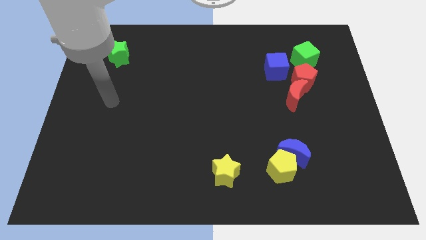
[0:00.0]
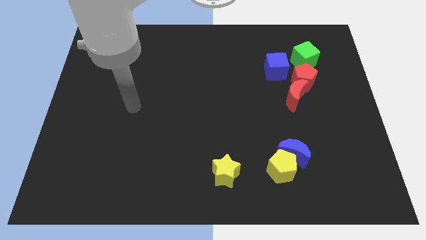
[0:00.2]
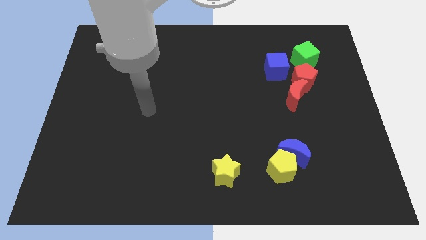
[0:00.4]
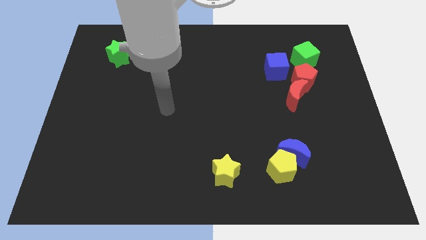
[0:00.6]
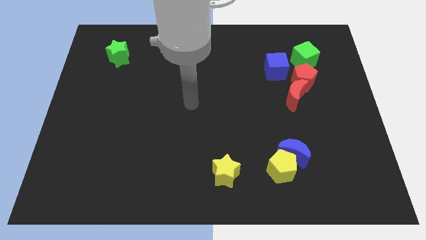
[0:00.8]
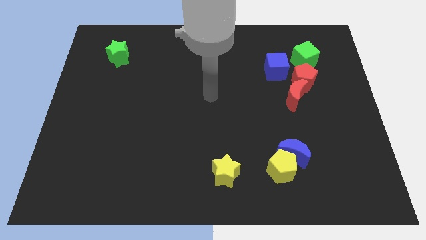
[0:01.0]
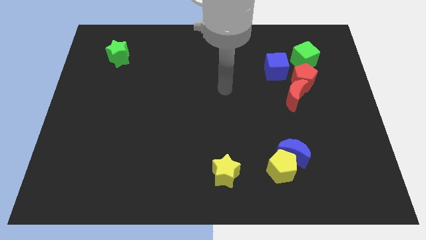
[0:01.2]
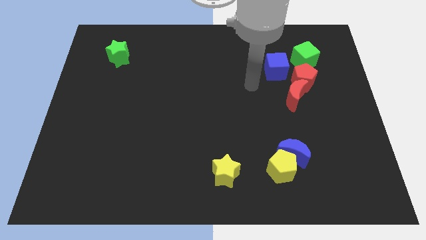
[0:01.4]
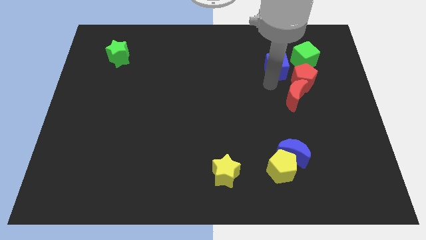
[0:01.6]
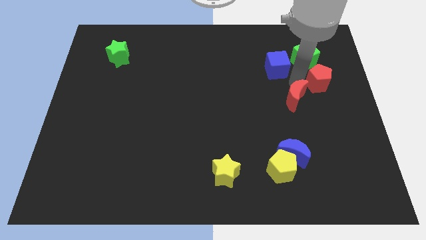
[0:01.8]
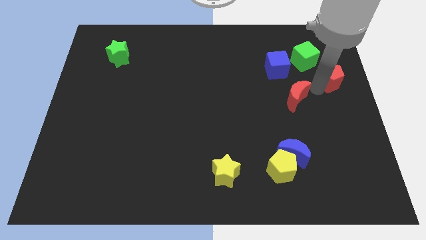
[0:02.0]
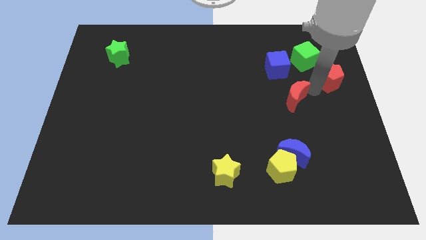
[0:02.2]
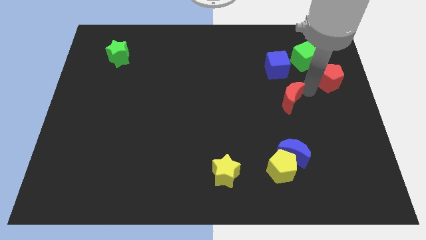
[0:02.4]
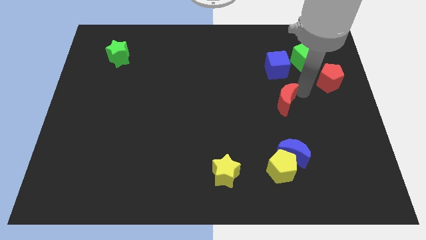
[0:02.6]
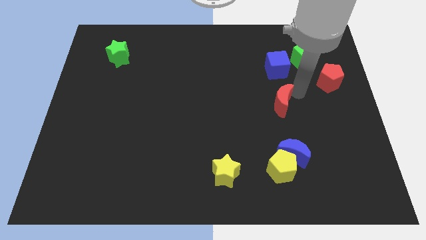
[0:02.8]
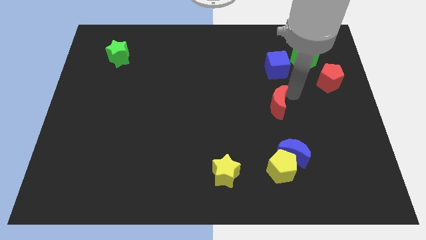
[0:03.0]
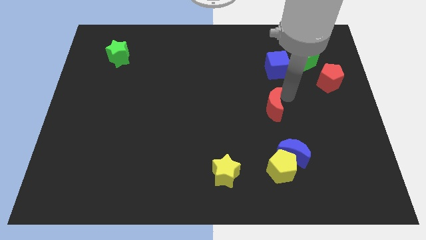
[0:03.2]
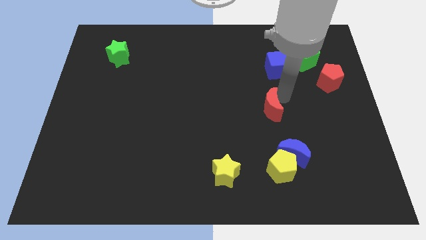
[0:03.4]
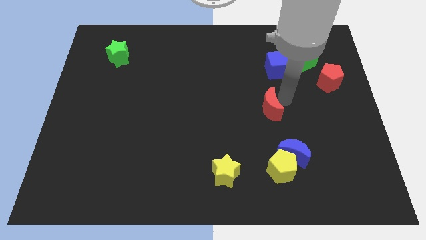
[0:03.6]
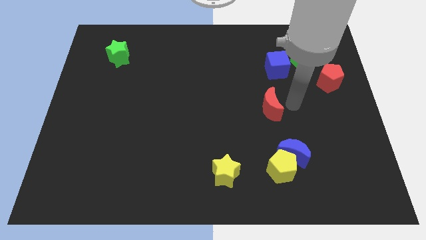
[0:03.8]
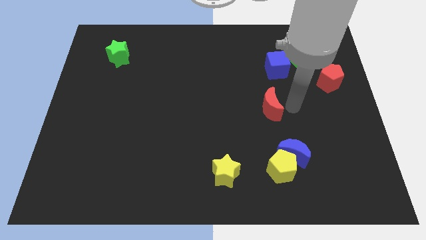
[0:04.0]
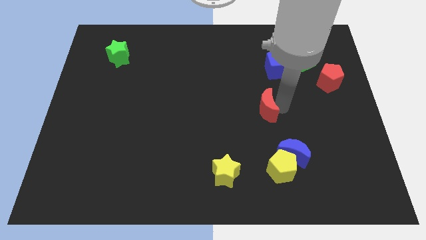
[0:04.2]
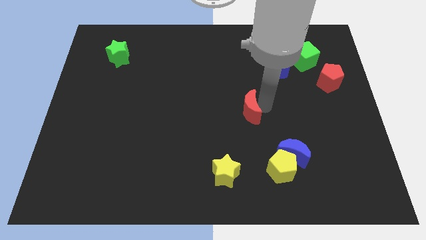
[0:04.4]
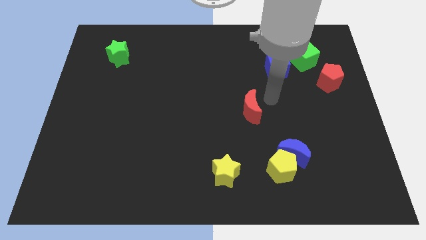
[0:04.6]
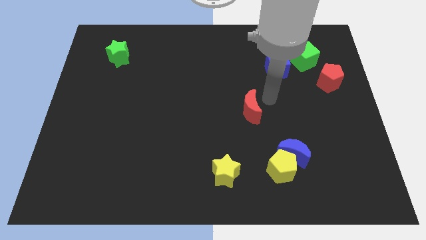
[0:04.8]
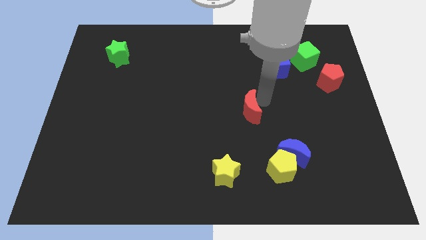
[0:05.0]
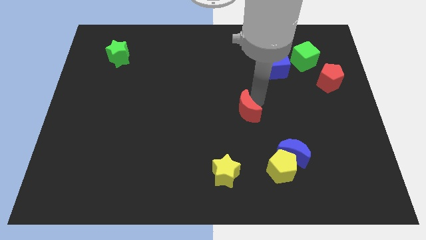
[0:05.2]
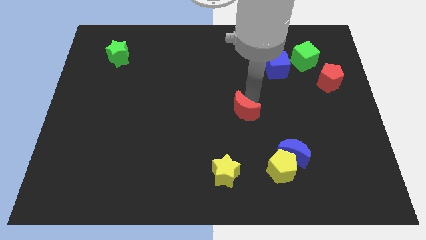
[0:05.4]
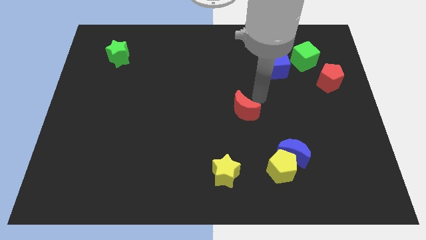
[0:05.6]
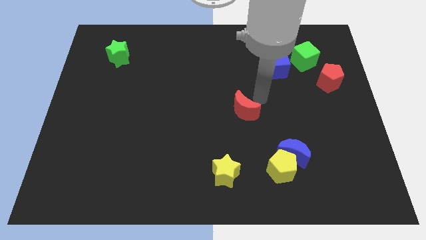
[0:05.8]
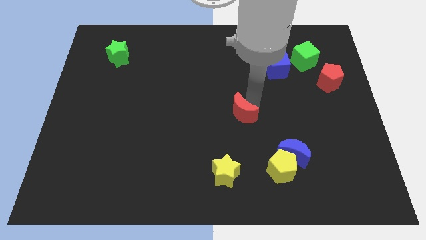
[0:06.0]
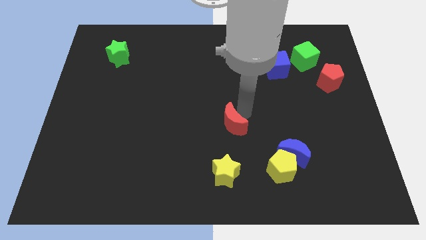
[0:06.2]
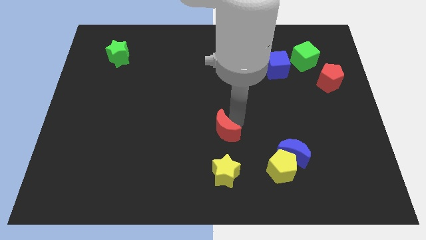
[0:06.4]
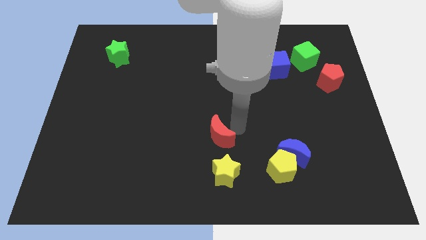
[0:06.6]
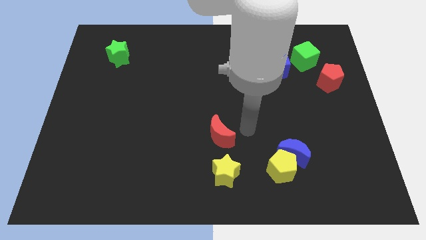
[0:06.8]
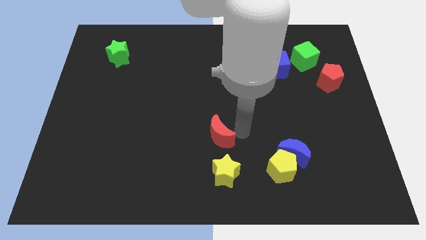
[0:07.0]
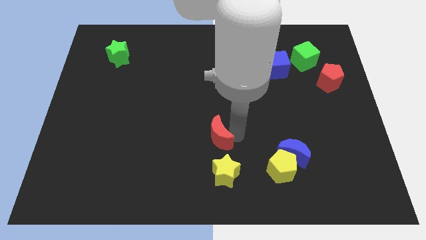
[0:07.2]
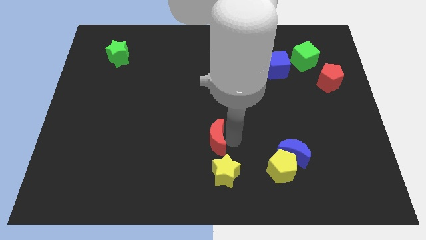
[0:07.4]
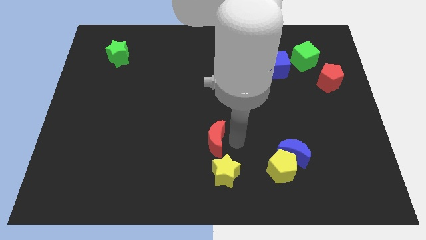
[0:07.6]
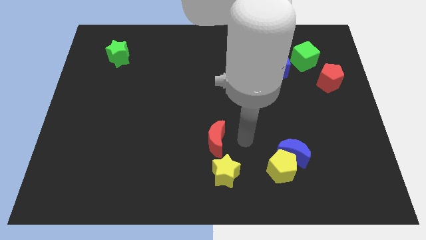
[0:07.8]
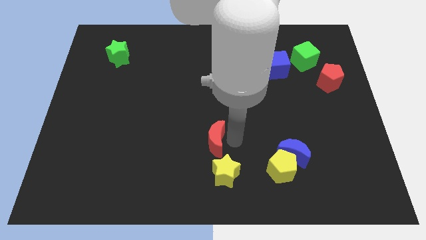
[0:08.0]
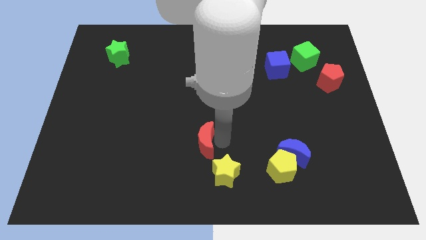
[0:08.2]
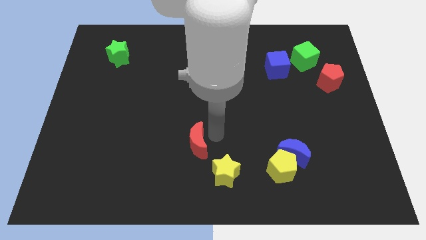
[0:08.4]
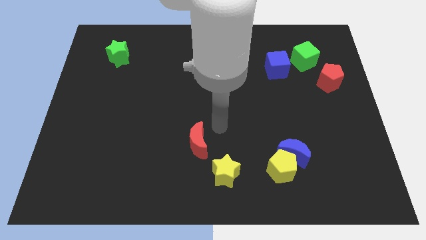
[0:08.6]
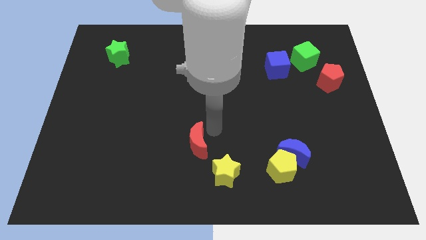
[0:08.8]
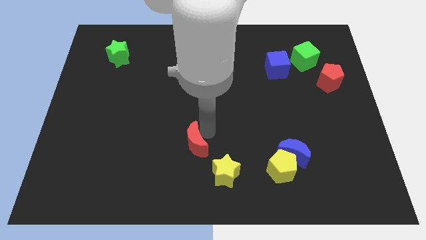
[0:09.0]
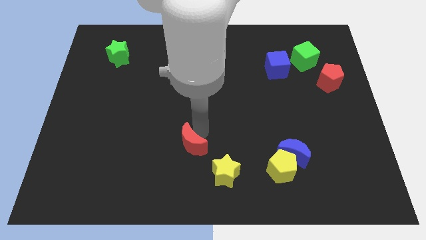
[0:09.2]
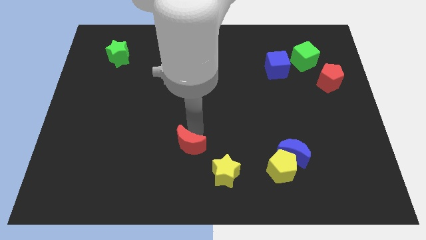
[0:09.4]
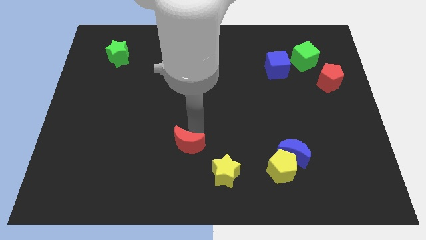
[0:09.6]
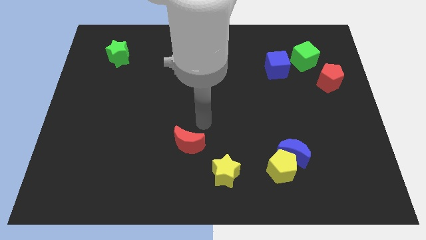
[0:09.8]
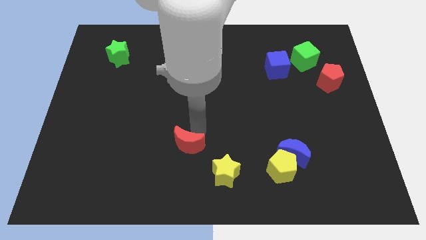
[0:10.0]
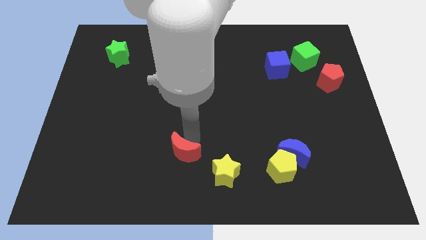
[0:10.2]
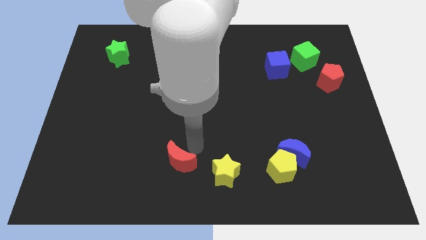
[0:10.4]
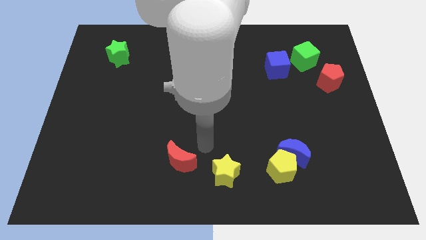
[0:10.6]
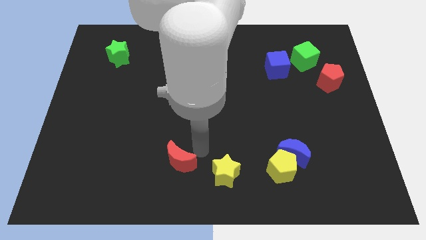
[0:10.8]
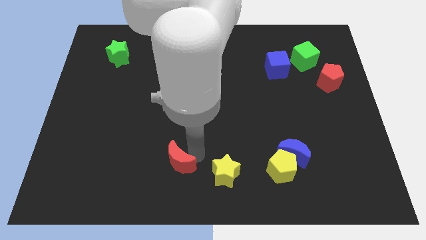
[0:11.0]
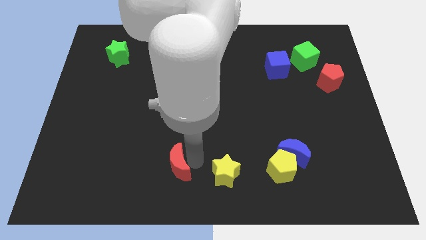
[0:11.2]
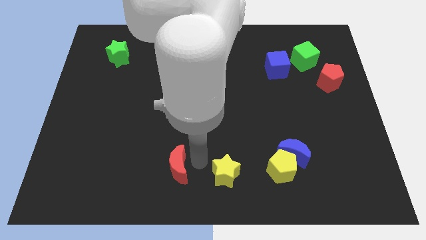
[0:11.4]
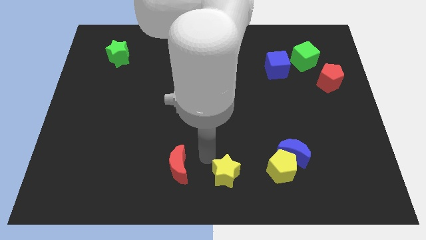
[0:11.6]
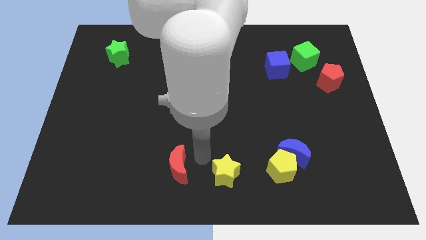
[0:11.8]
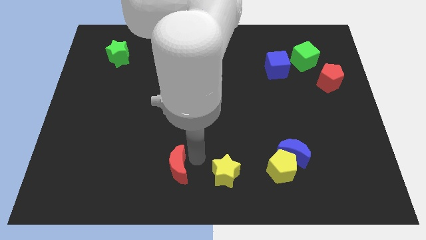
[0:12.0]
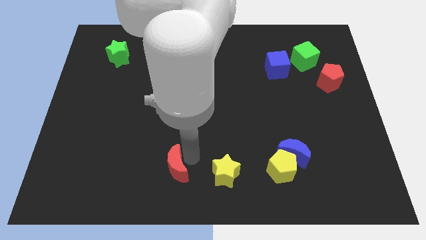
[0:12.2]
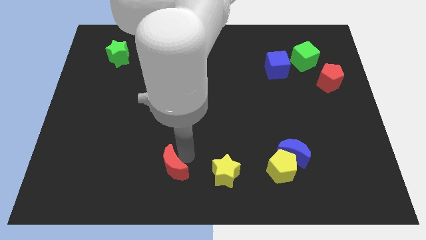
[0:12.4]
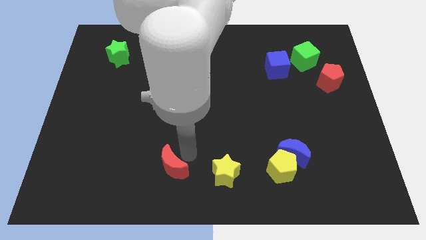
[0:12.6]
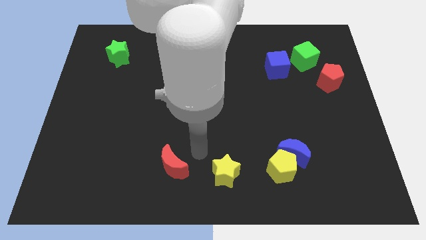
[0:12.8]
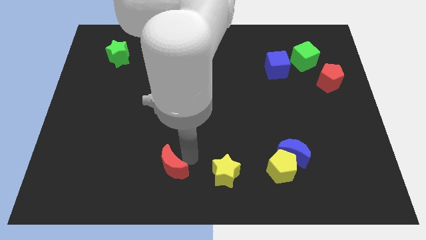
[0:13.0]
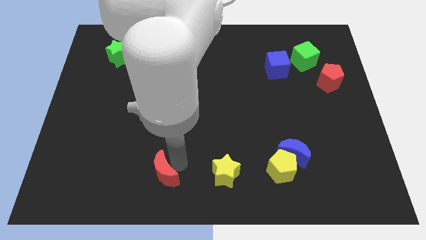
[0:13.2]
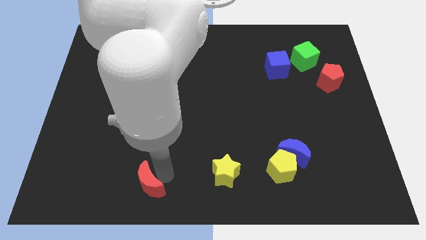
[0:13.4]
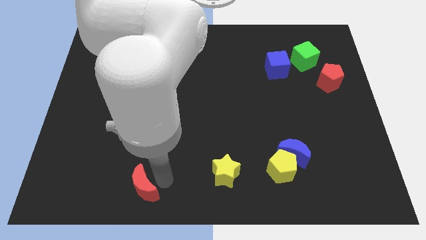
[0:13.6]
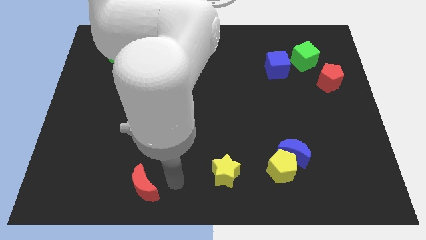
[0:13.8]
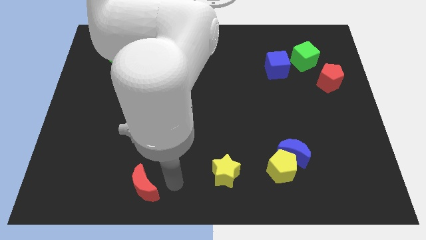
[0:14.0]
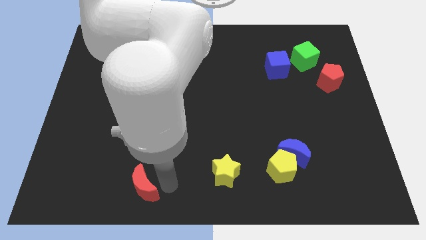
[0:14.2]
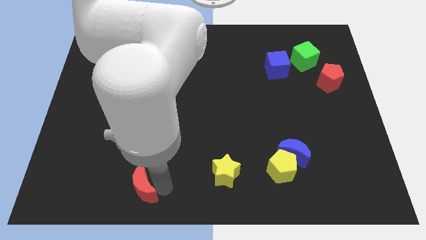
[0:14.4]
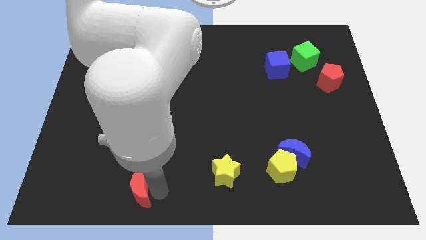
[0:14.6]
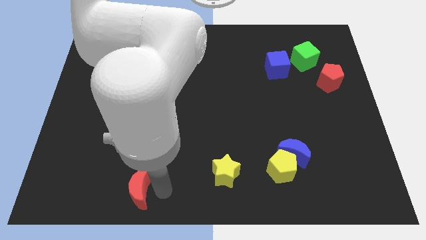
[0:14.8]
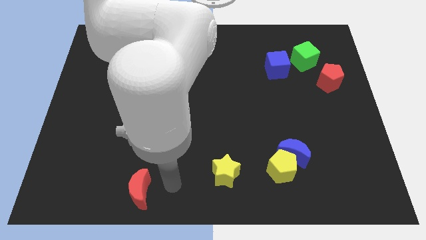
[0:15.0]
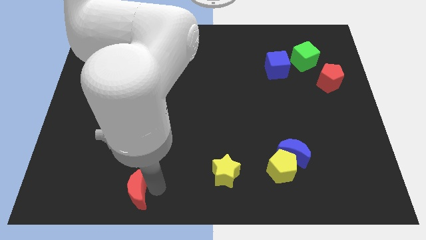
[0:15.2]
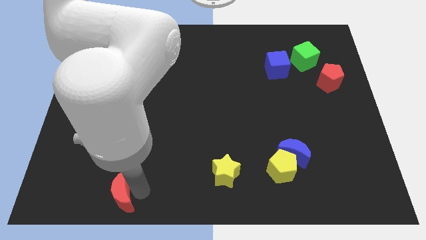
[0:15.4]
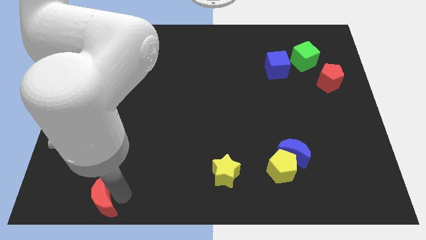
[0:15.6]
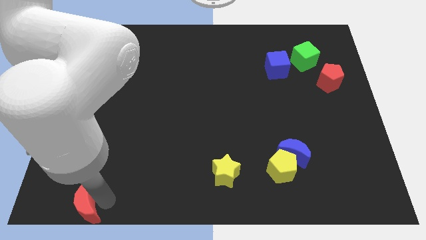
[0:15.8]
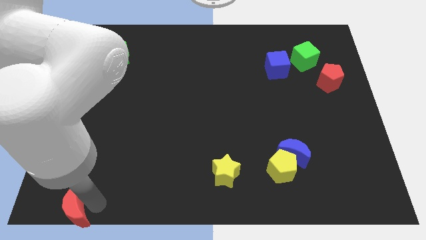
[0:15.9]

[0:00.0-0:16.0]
push the red moon to the lower left corner
